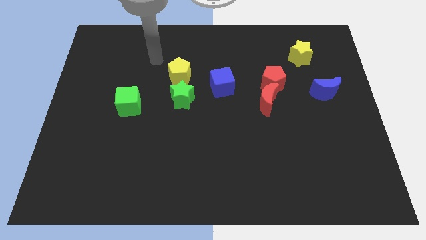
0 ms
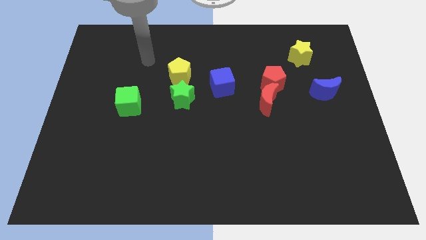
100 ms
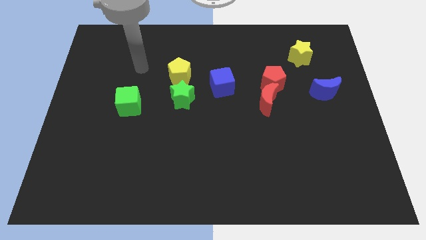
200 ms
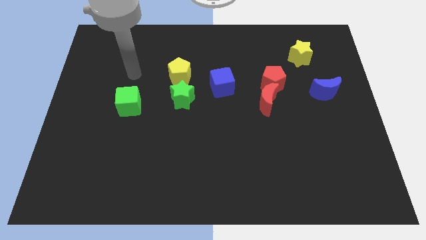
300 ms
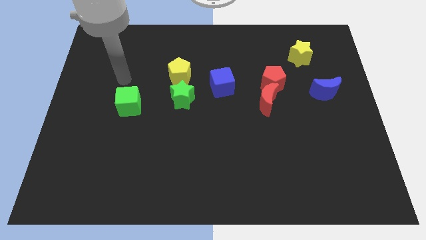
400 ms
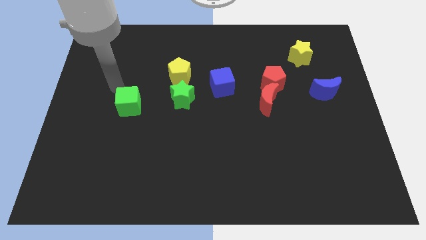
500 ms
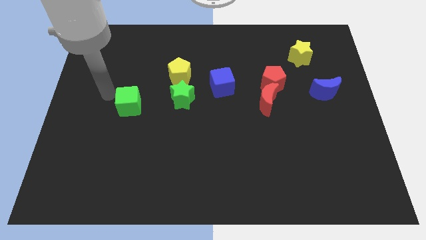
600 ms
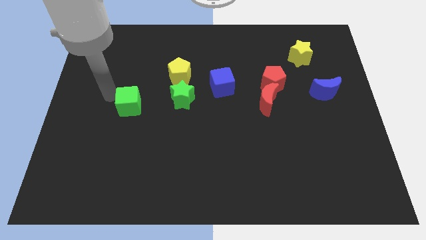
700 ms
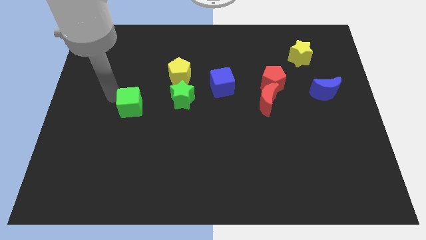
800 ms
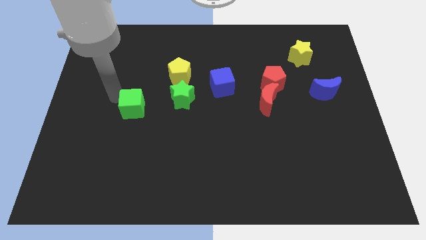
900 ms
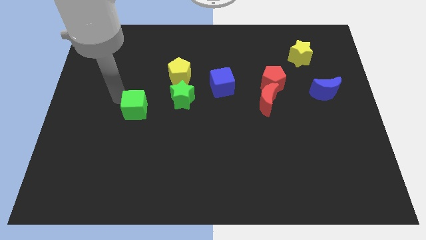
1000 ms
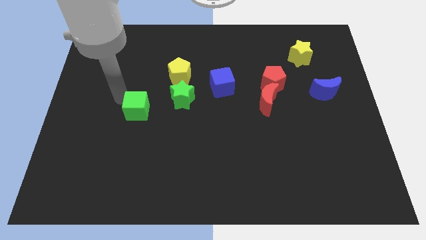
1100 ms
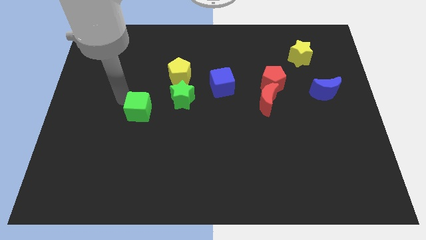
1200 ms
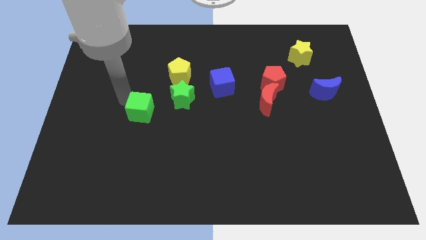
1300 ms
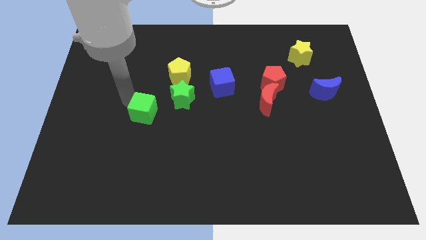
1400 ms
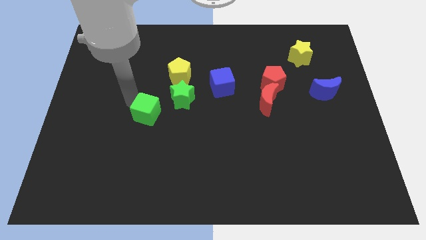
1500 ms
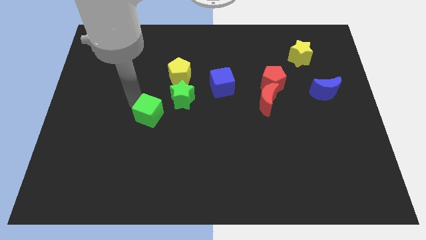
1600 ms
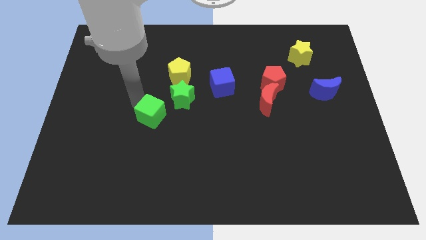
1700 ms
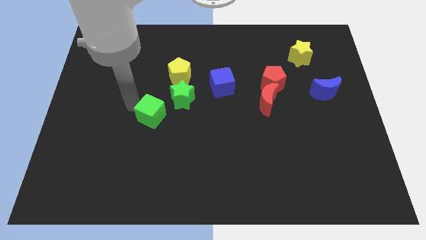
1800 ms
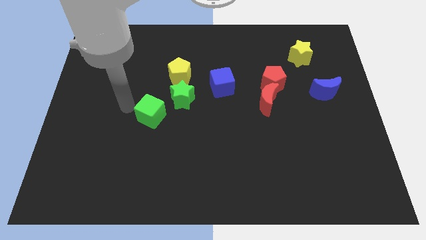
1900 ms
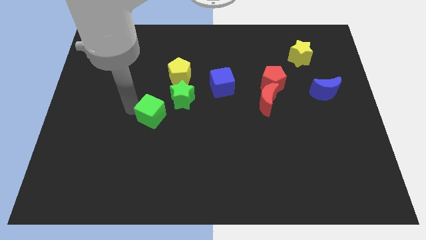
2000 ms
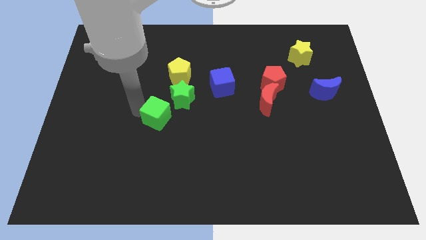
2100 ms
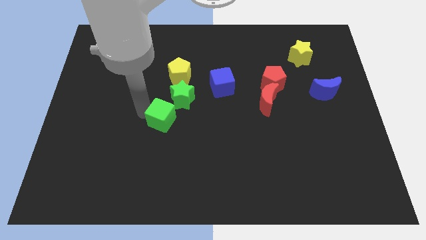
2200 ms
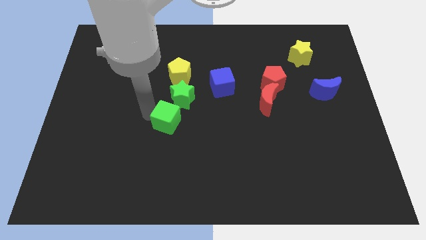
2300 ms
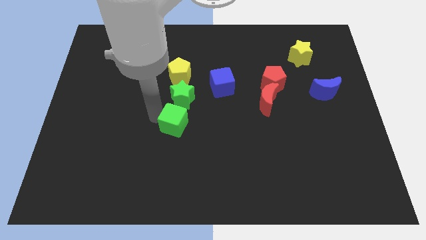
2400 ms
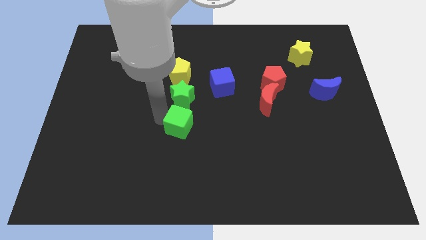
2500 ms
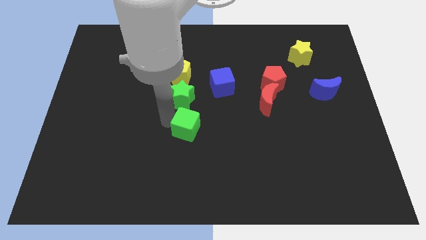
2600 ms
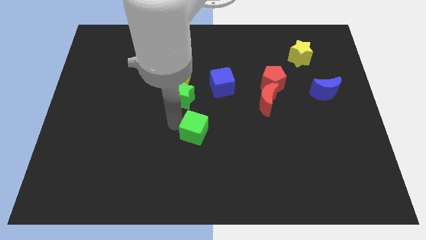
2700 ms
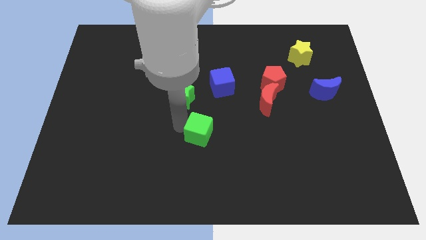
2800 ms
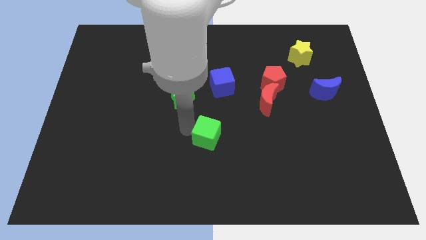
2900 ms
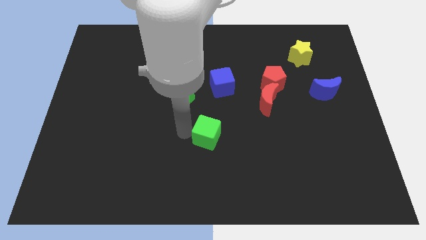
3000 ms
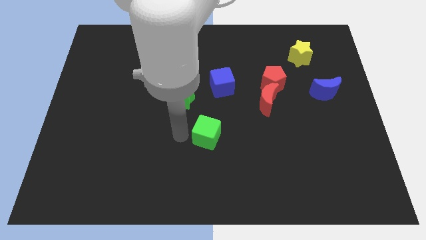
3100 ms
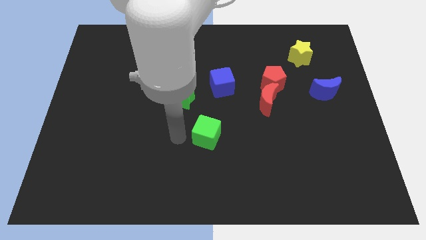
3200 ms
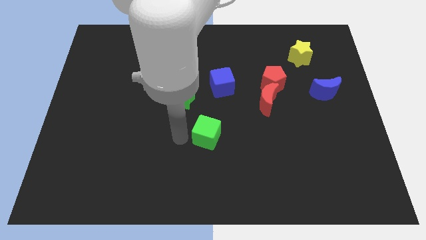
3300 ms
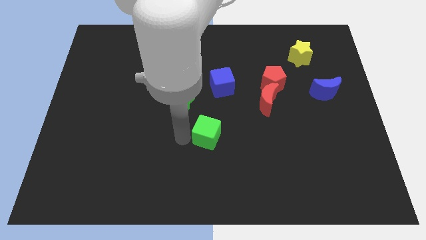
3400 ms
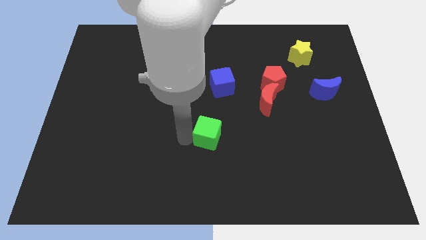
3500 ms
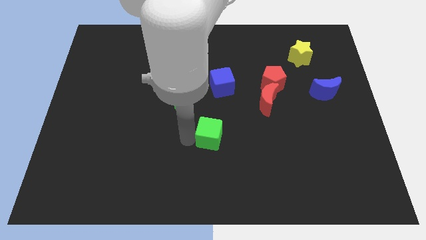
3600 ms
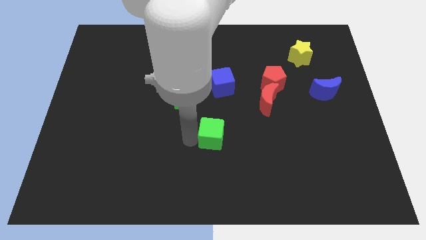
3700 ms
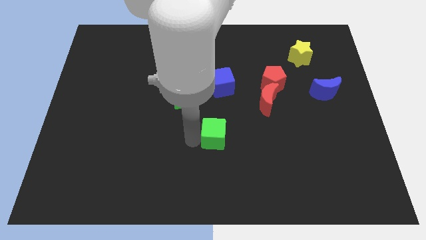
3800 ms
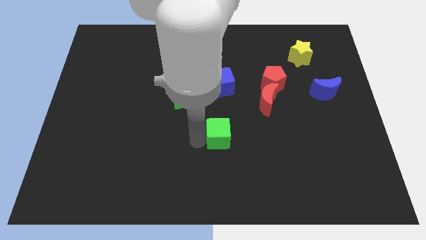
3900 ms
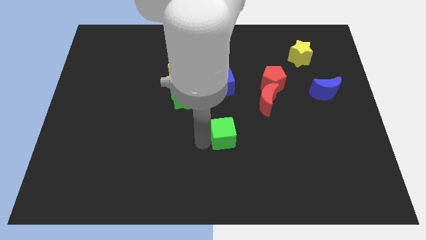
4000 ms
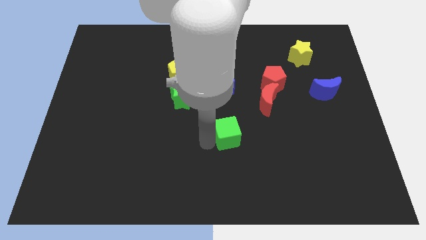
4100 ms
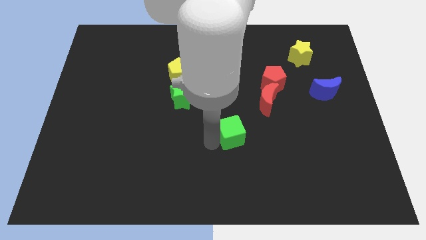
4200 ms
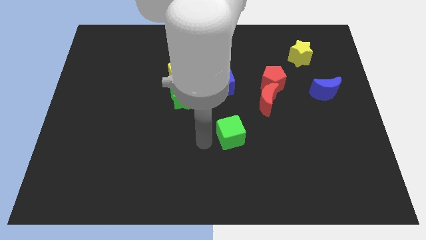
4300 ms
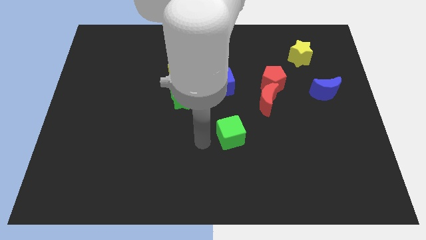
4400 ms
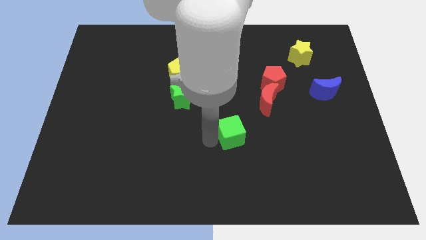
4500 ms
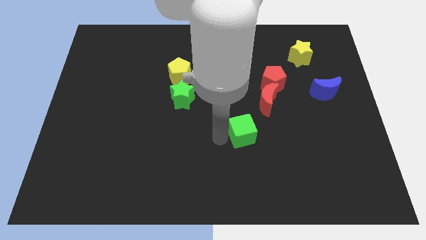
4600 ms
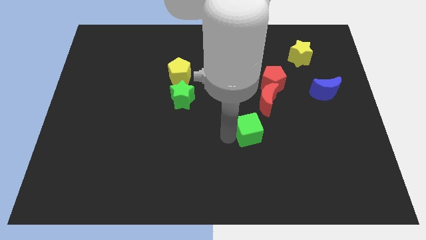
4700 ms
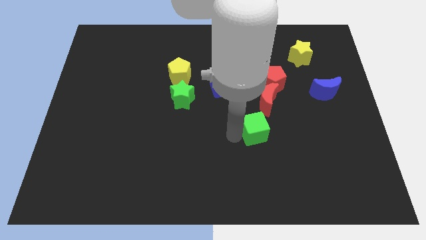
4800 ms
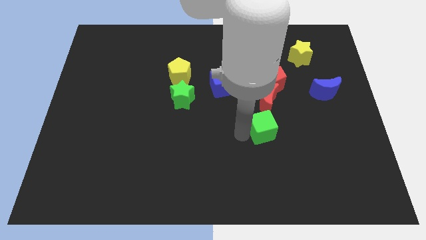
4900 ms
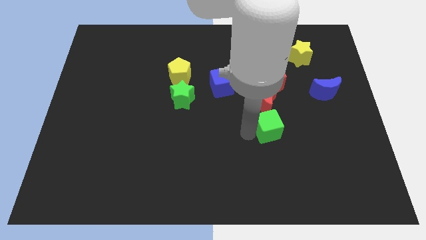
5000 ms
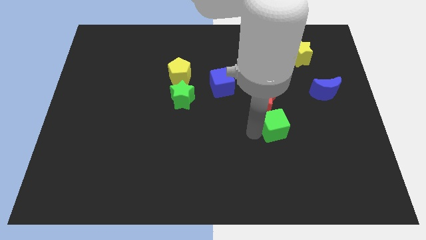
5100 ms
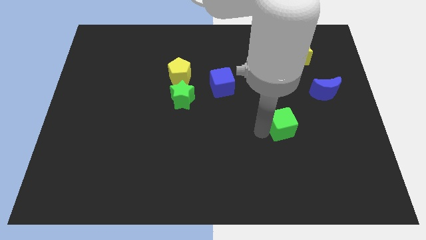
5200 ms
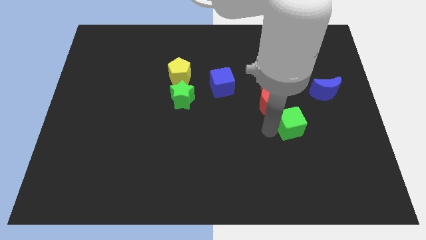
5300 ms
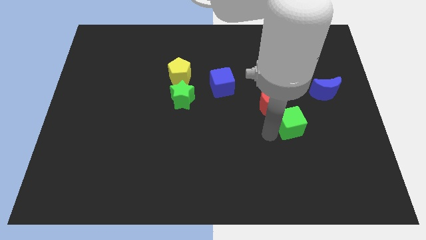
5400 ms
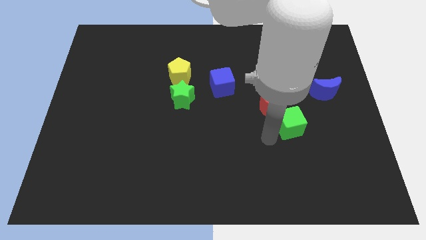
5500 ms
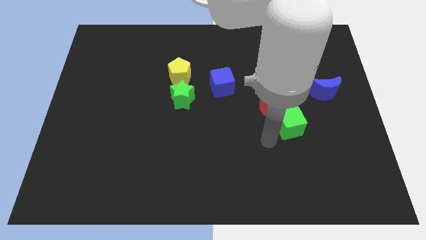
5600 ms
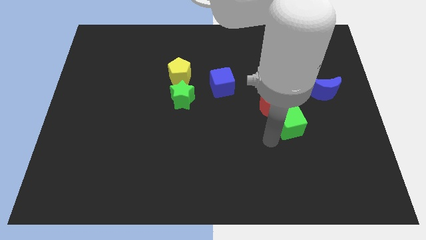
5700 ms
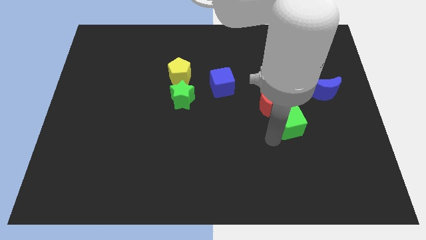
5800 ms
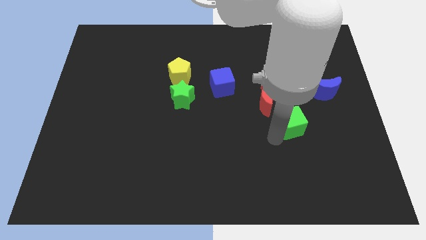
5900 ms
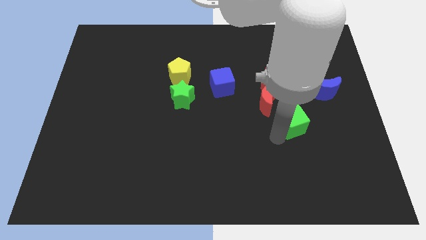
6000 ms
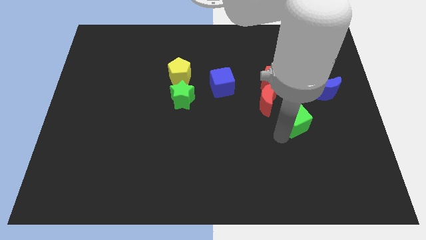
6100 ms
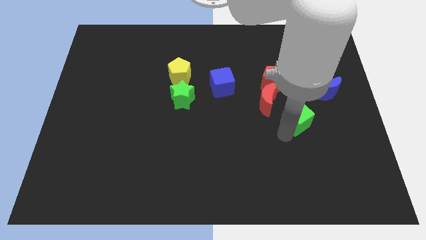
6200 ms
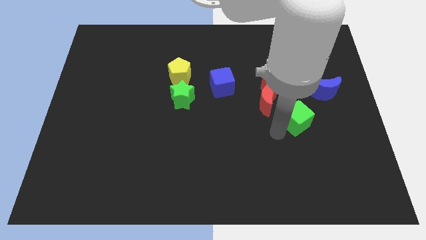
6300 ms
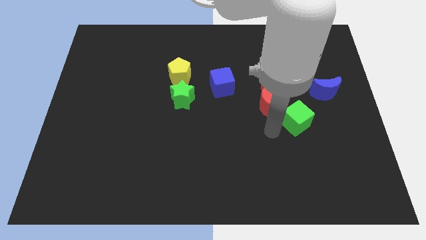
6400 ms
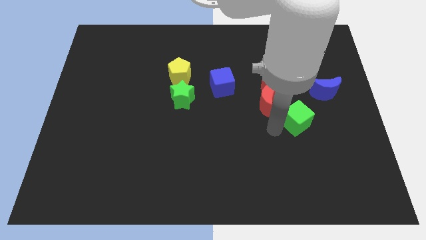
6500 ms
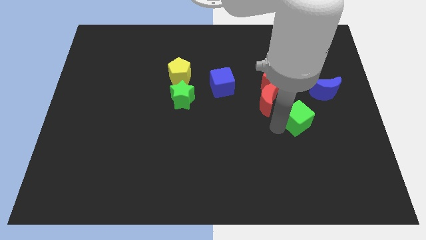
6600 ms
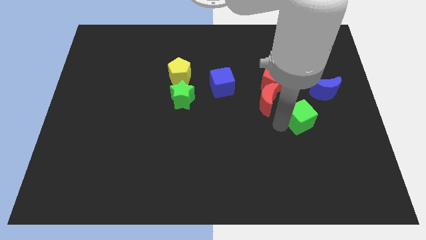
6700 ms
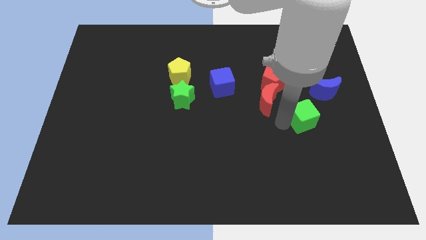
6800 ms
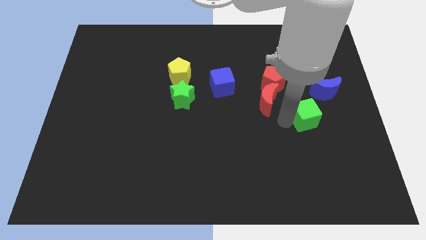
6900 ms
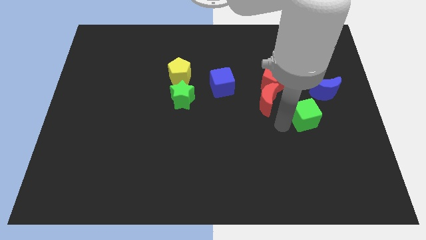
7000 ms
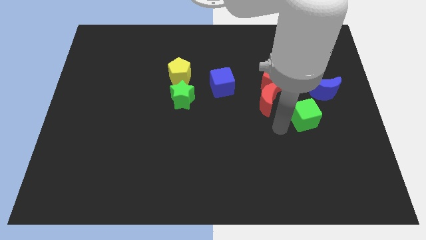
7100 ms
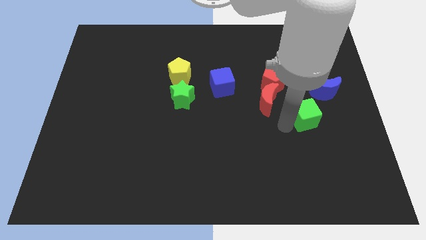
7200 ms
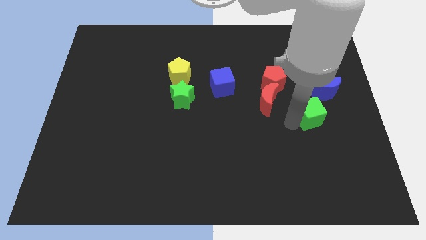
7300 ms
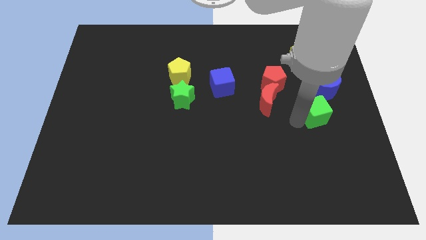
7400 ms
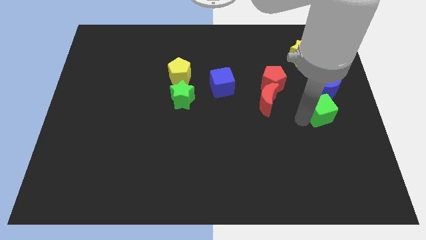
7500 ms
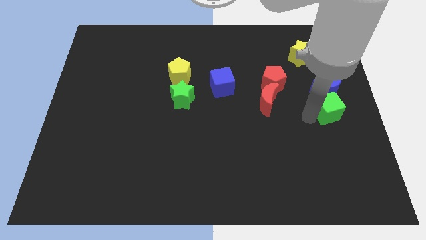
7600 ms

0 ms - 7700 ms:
put the green cube to the right side of the board
